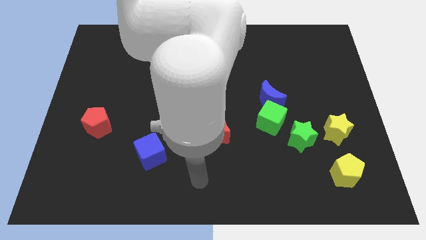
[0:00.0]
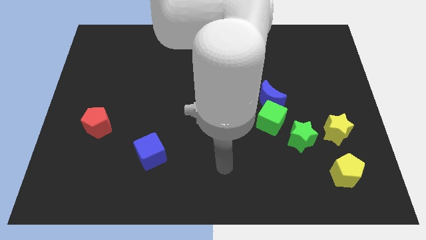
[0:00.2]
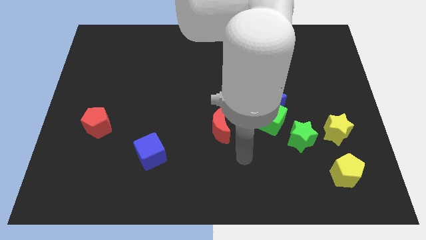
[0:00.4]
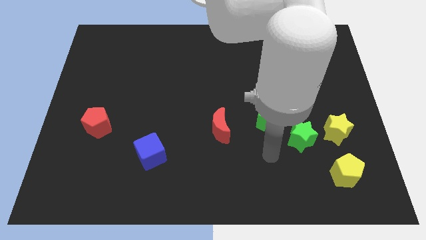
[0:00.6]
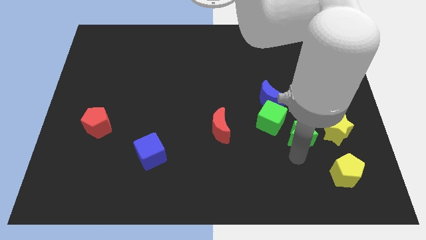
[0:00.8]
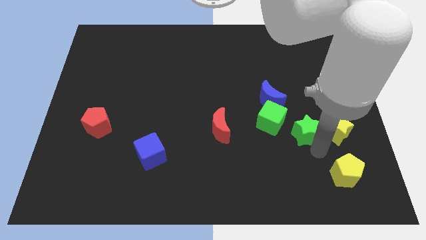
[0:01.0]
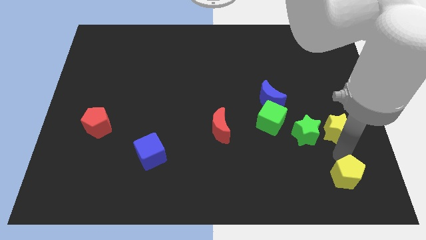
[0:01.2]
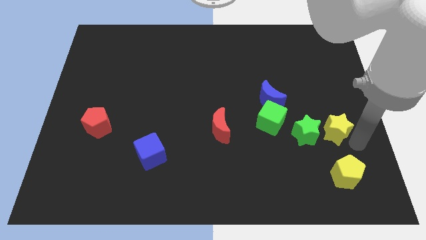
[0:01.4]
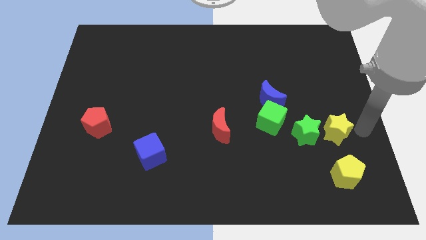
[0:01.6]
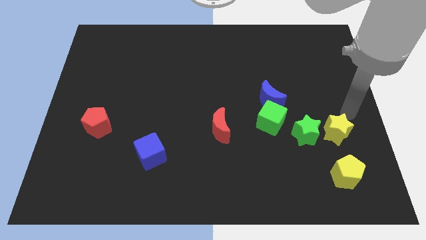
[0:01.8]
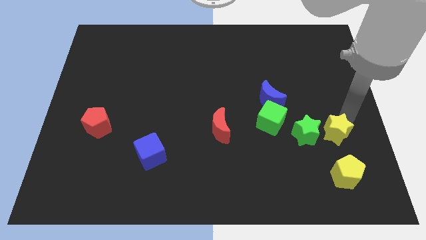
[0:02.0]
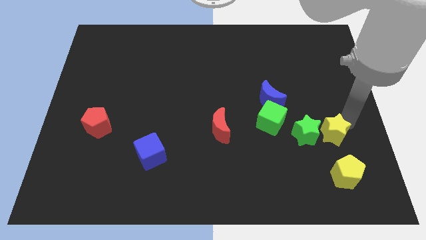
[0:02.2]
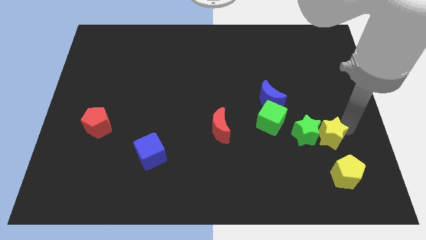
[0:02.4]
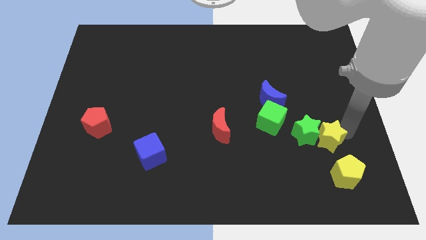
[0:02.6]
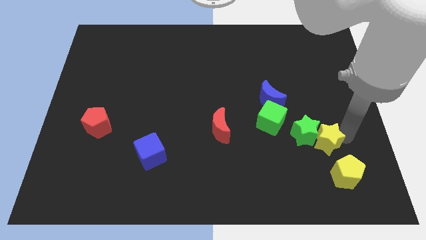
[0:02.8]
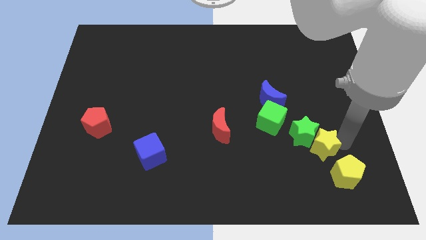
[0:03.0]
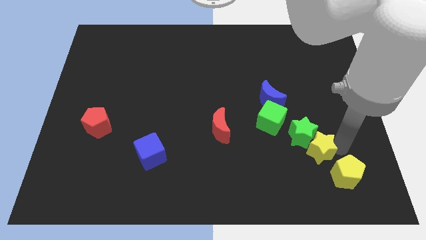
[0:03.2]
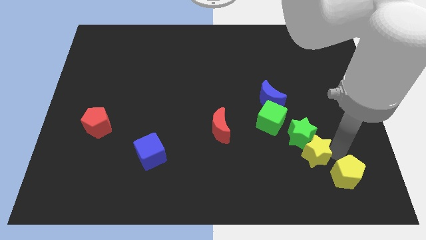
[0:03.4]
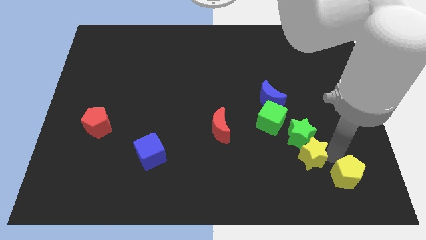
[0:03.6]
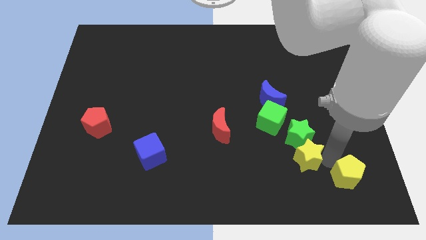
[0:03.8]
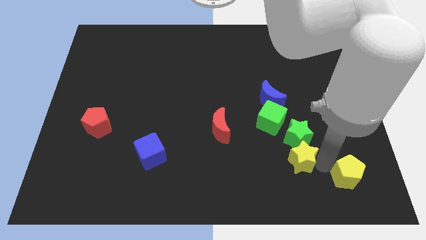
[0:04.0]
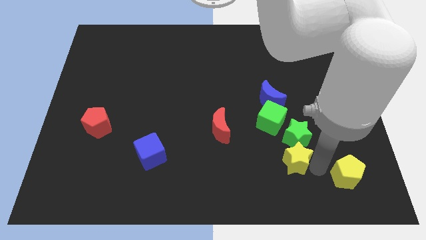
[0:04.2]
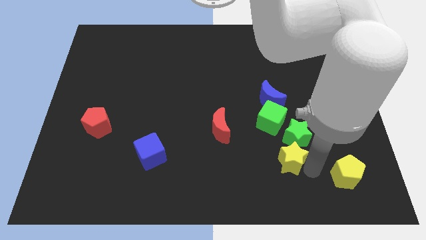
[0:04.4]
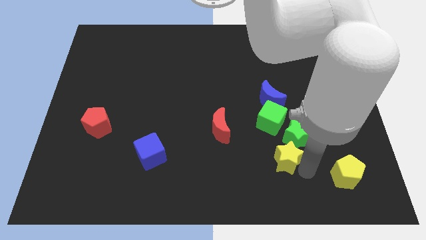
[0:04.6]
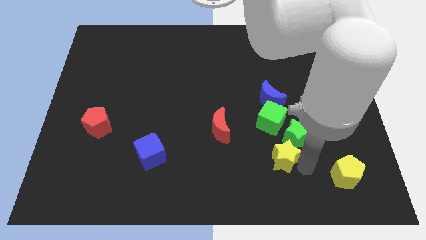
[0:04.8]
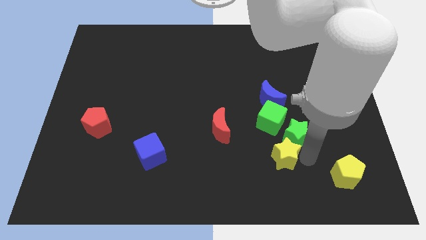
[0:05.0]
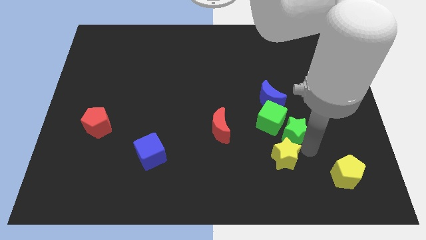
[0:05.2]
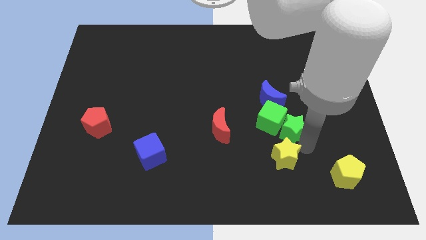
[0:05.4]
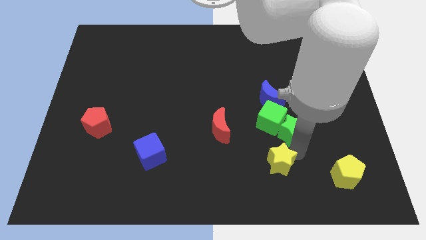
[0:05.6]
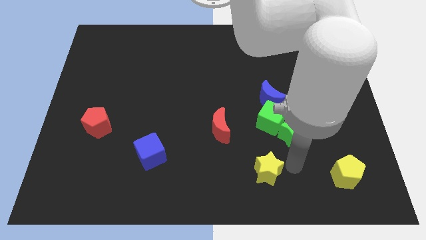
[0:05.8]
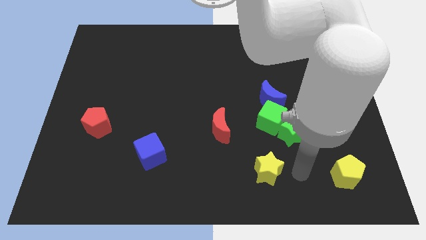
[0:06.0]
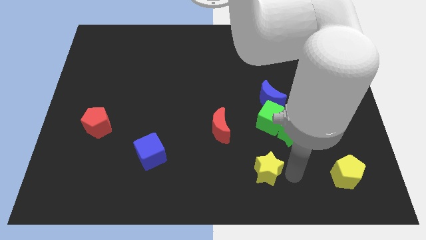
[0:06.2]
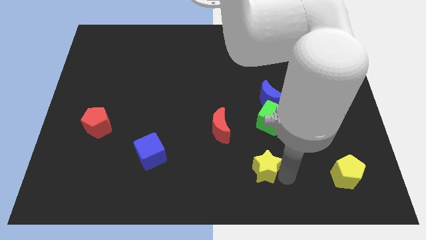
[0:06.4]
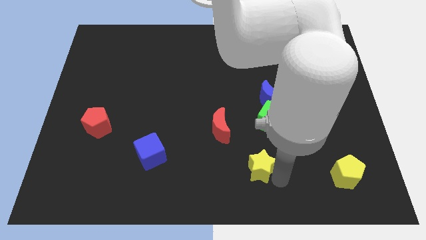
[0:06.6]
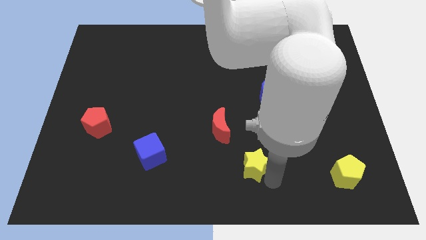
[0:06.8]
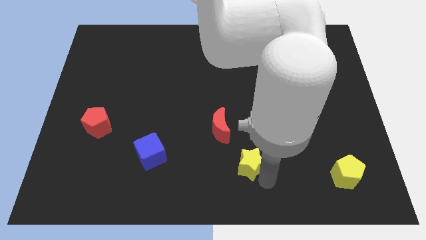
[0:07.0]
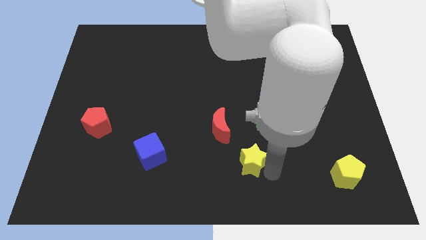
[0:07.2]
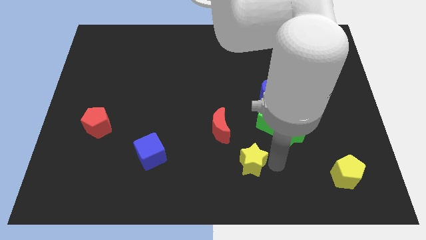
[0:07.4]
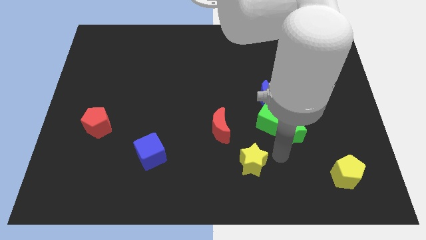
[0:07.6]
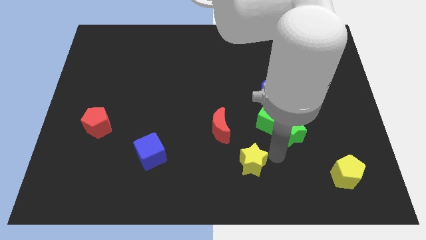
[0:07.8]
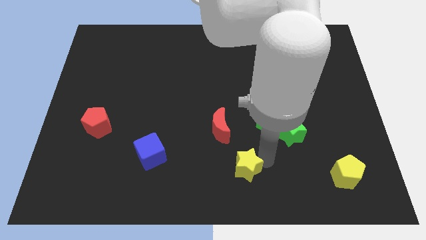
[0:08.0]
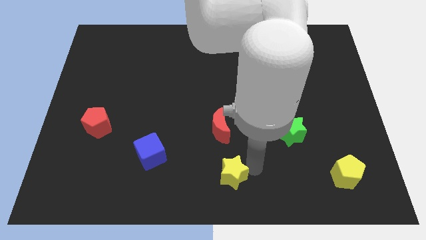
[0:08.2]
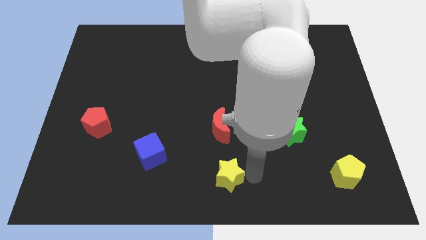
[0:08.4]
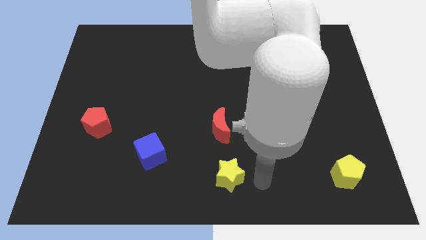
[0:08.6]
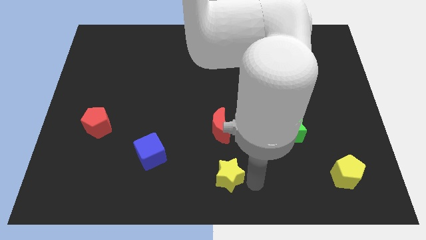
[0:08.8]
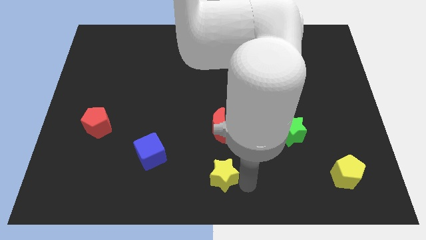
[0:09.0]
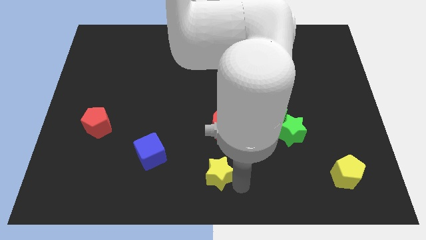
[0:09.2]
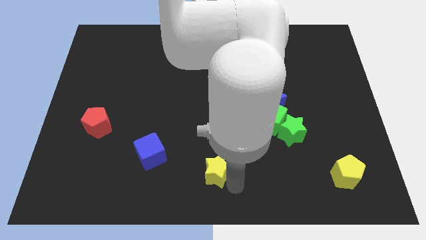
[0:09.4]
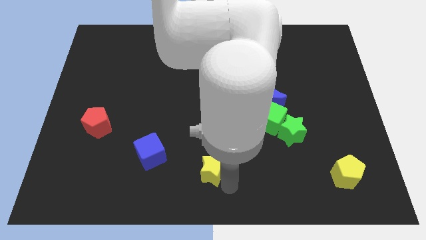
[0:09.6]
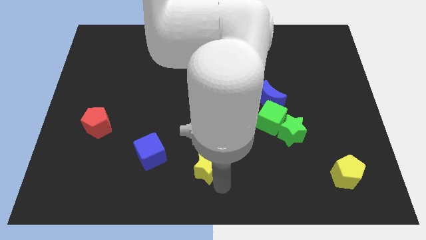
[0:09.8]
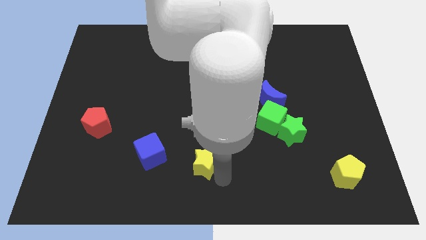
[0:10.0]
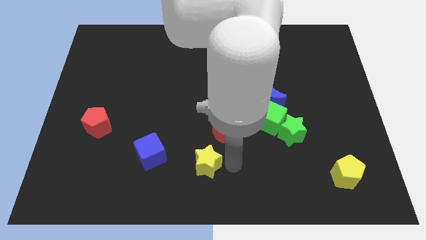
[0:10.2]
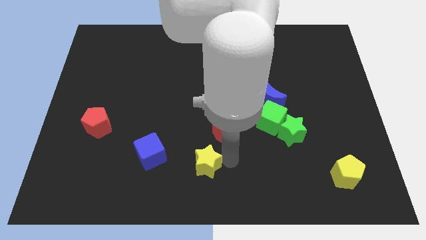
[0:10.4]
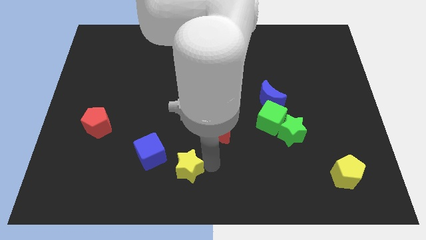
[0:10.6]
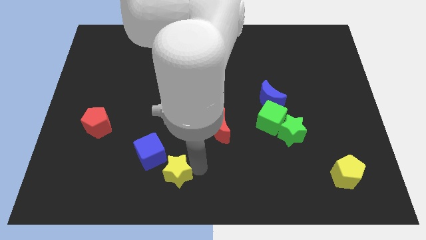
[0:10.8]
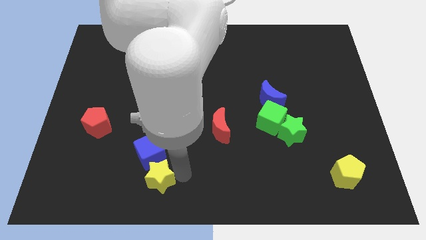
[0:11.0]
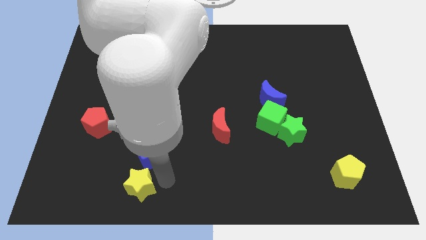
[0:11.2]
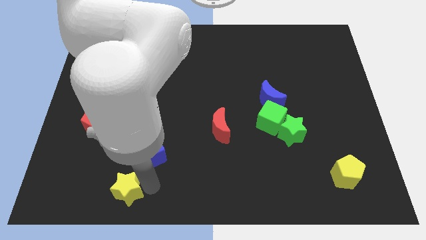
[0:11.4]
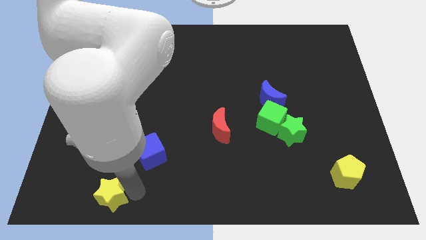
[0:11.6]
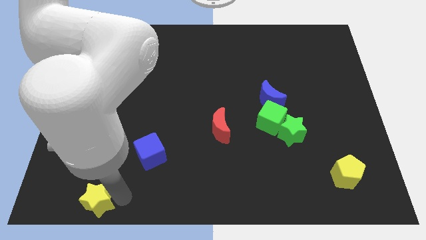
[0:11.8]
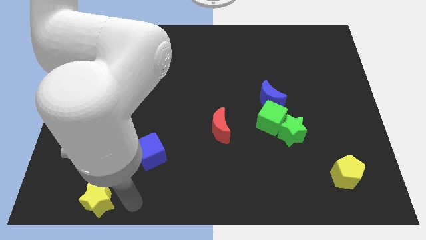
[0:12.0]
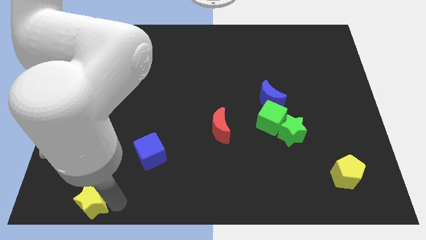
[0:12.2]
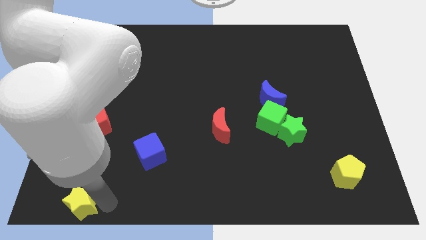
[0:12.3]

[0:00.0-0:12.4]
push the yellow star to the bottom left

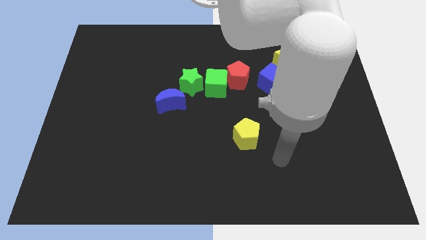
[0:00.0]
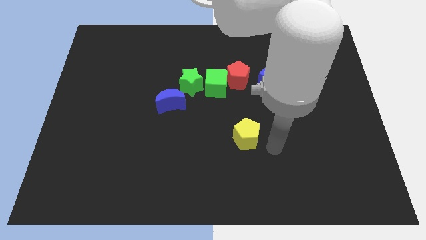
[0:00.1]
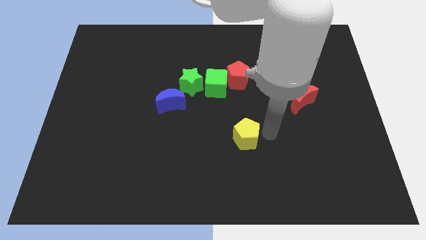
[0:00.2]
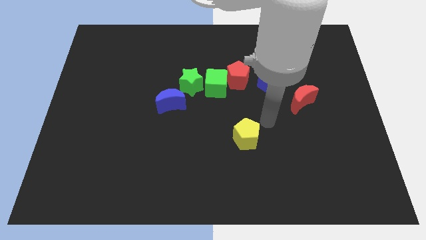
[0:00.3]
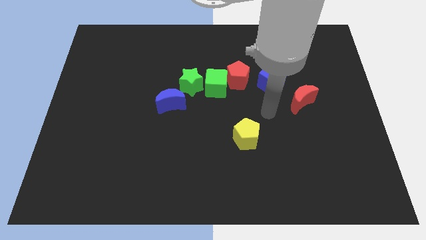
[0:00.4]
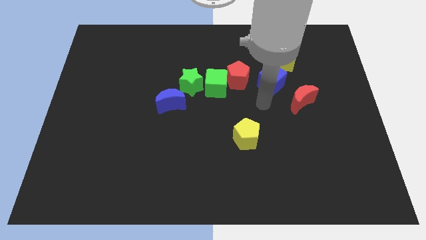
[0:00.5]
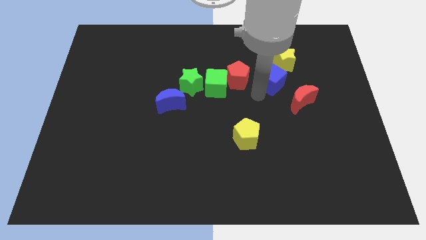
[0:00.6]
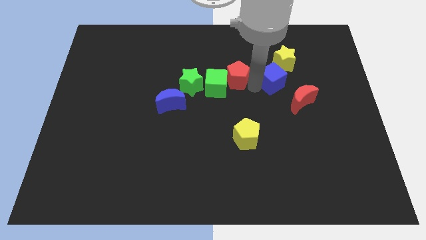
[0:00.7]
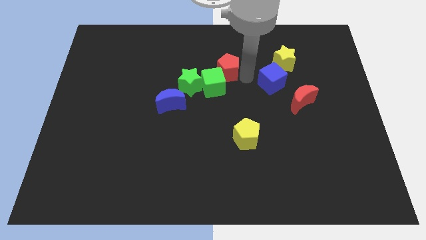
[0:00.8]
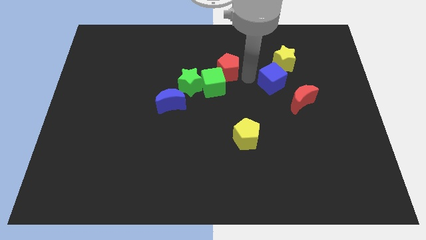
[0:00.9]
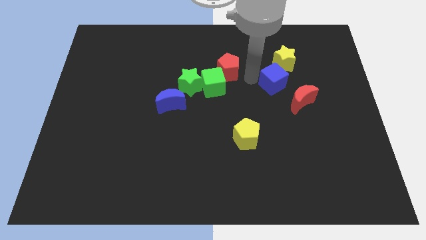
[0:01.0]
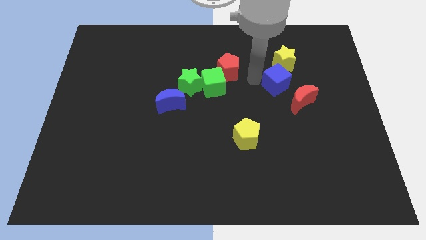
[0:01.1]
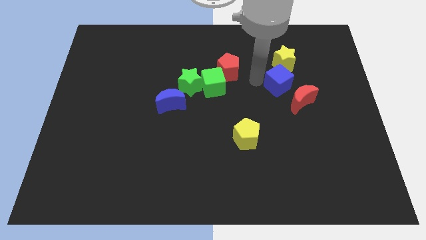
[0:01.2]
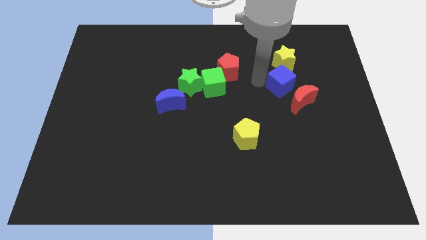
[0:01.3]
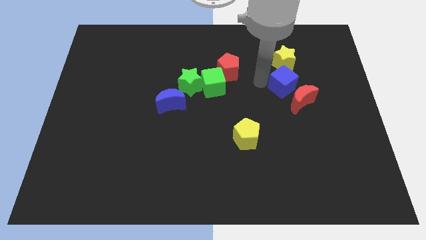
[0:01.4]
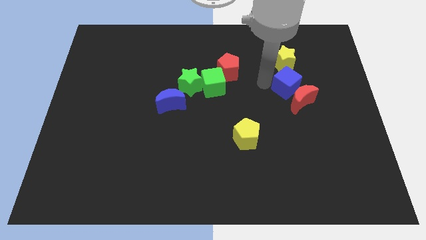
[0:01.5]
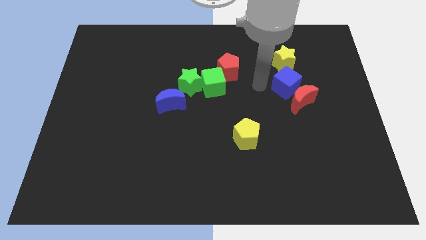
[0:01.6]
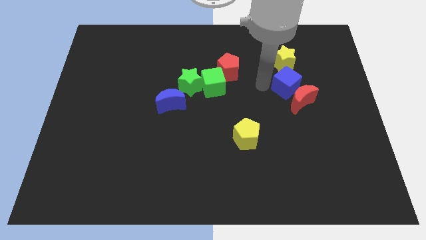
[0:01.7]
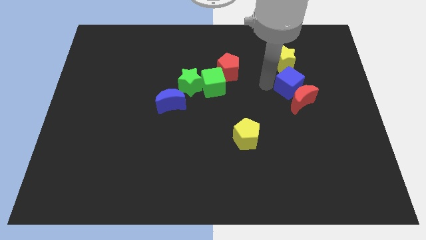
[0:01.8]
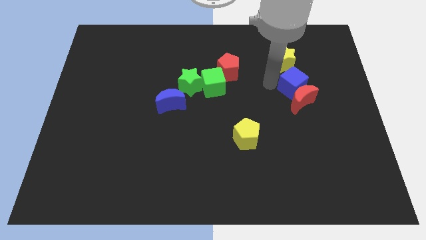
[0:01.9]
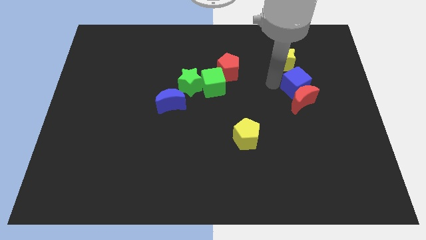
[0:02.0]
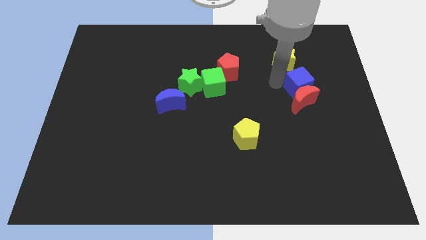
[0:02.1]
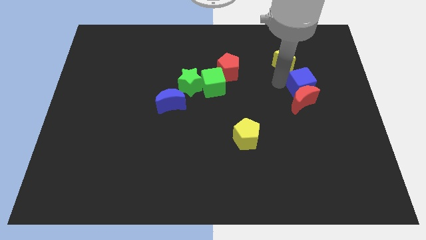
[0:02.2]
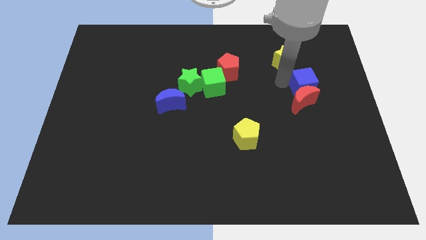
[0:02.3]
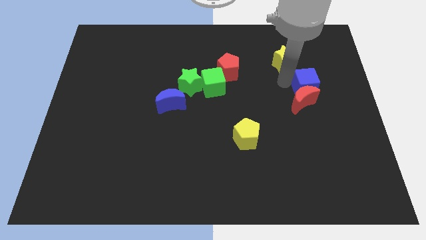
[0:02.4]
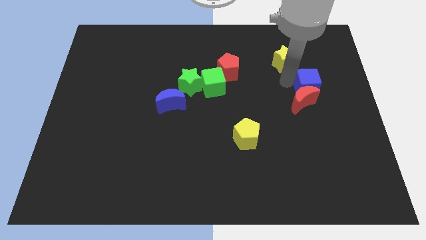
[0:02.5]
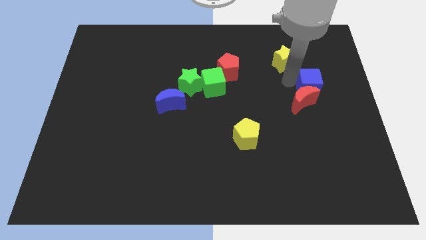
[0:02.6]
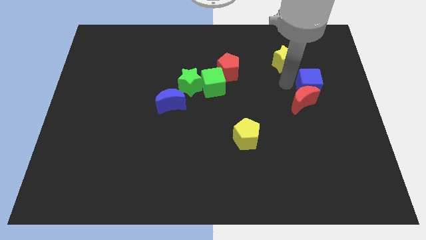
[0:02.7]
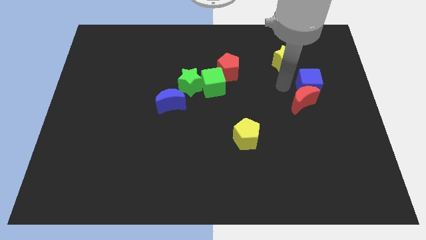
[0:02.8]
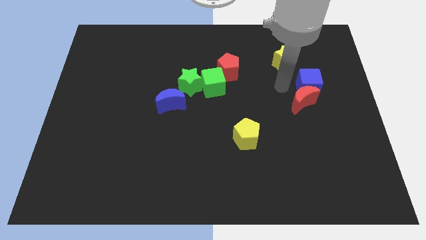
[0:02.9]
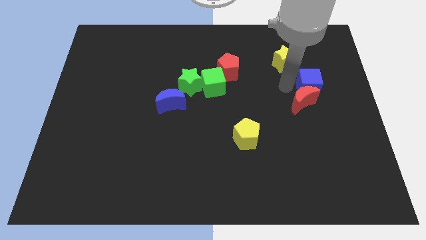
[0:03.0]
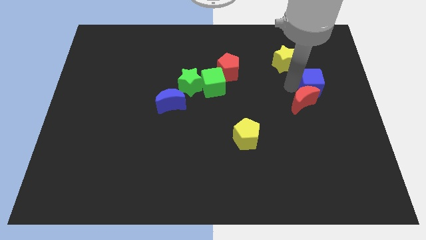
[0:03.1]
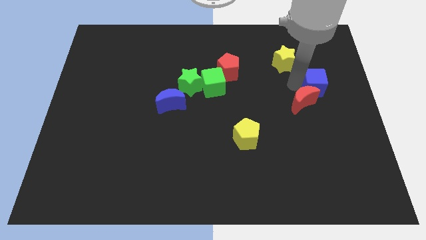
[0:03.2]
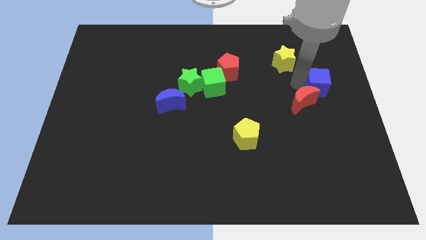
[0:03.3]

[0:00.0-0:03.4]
slide the blue cube to the center right
